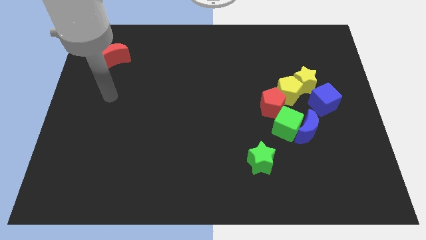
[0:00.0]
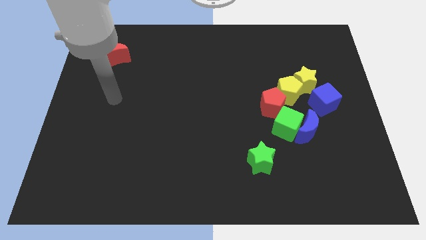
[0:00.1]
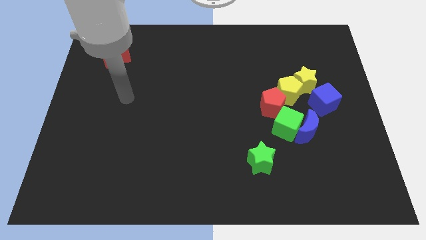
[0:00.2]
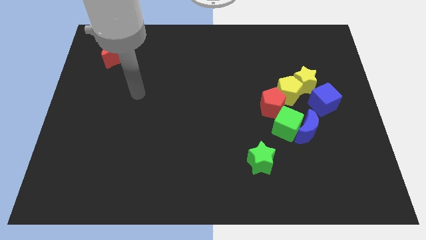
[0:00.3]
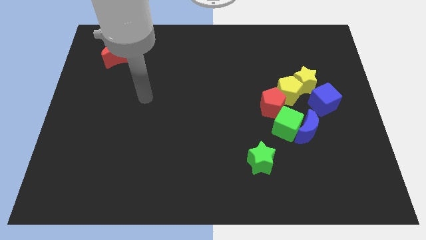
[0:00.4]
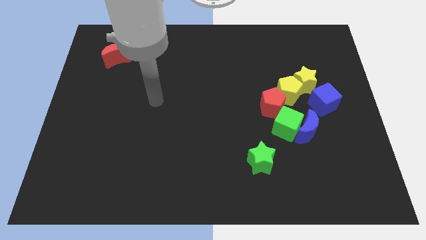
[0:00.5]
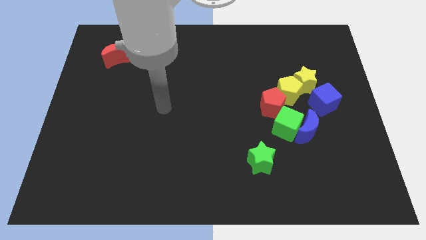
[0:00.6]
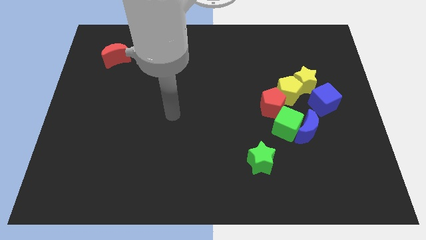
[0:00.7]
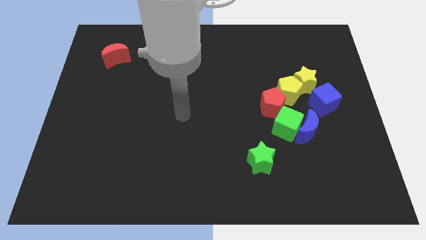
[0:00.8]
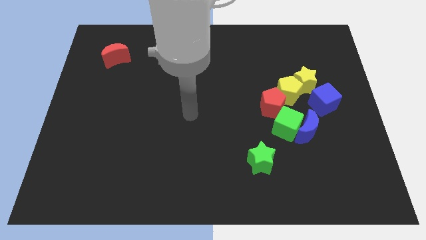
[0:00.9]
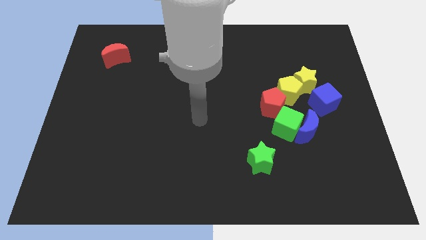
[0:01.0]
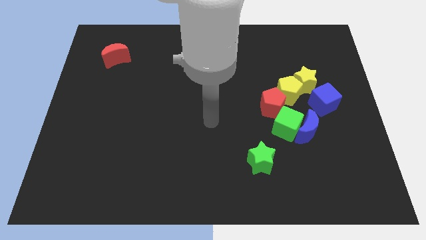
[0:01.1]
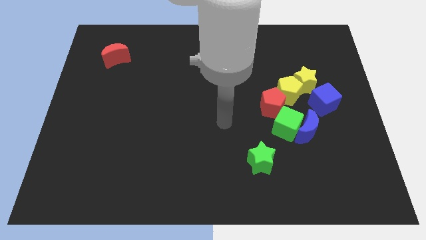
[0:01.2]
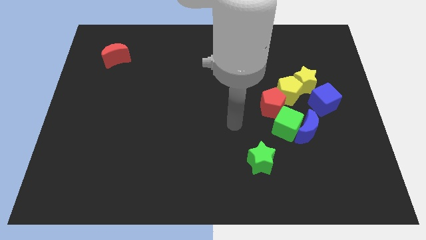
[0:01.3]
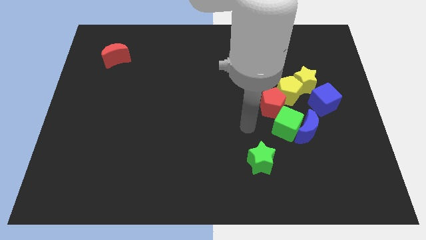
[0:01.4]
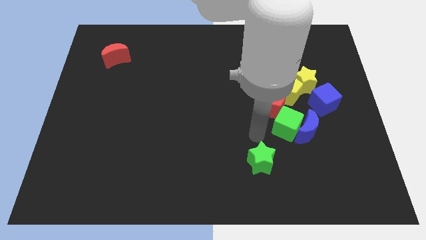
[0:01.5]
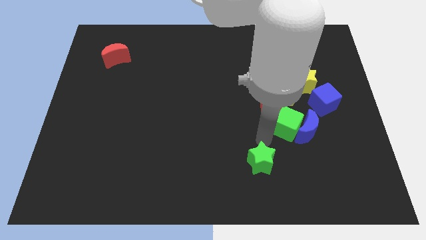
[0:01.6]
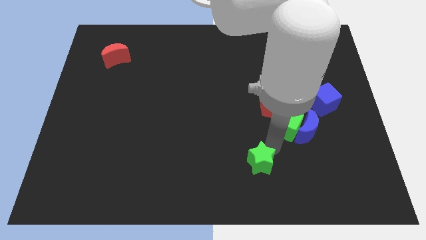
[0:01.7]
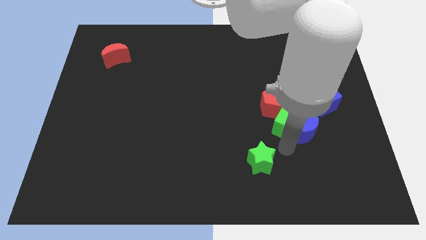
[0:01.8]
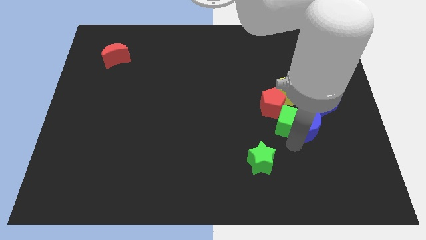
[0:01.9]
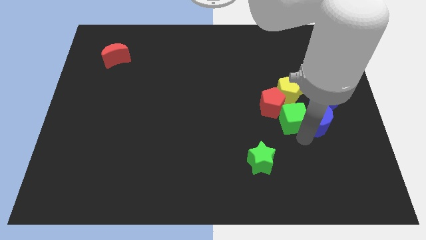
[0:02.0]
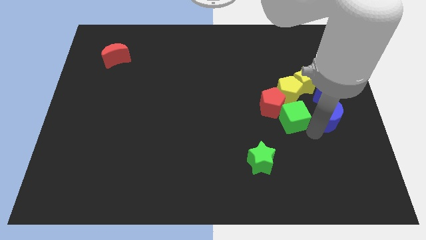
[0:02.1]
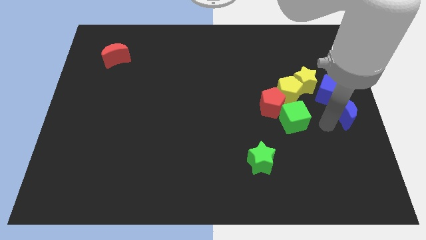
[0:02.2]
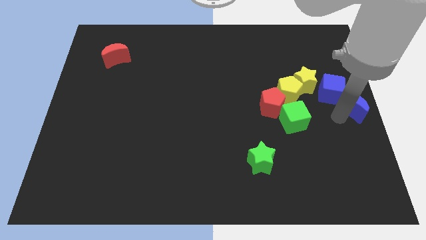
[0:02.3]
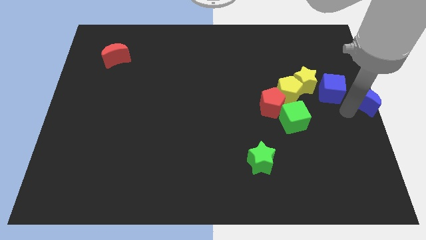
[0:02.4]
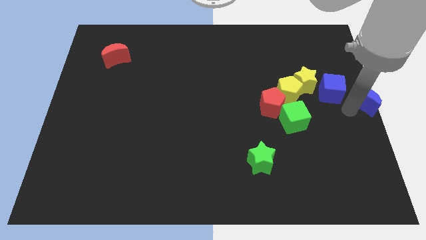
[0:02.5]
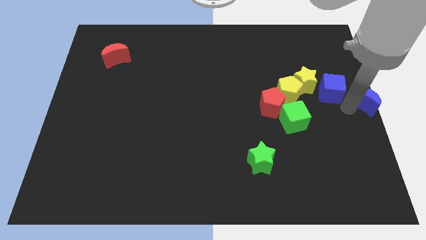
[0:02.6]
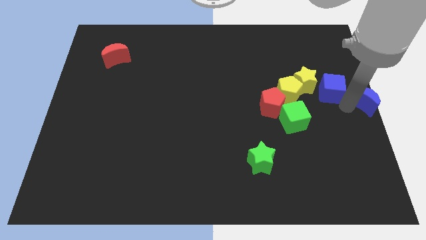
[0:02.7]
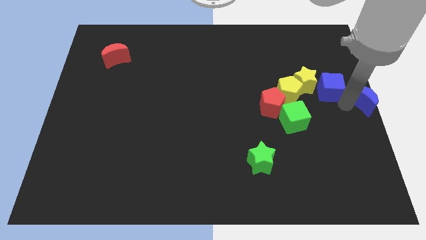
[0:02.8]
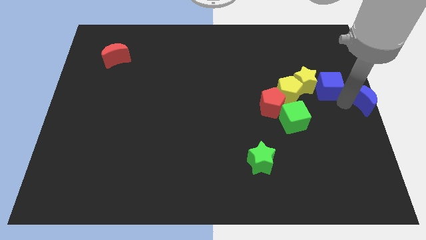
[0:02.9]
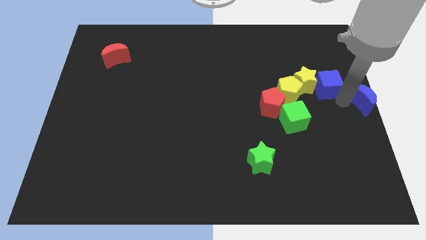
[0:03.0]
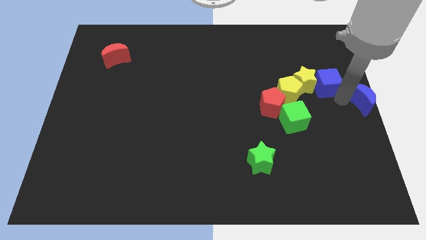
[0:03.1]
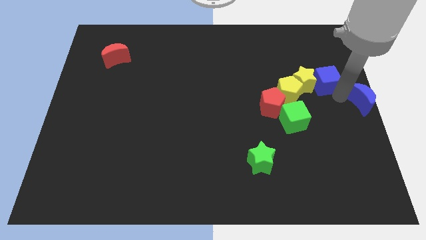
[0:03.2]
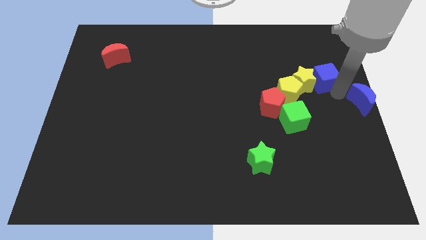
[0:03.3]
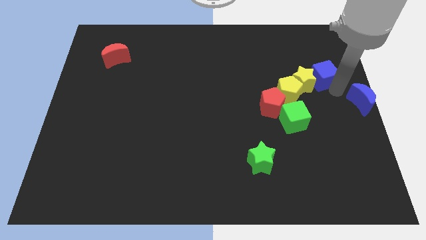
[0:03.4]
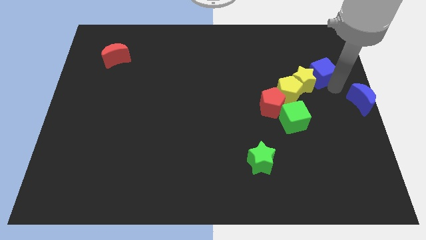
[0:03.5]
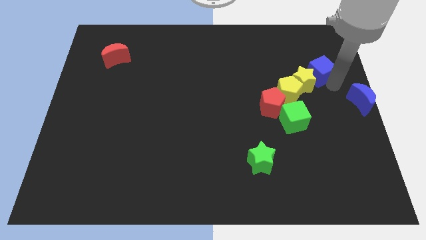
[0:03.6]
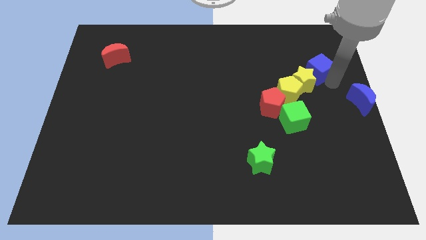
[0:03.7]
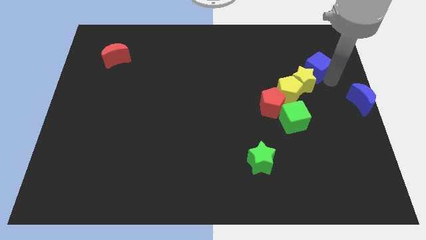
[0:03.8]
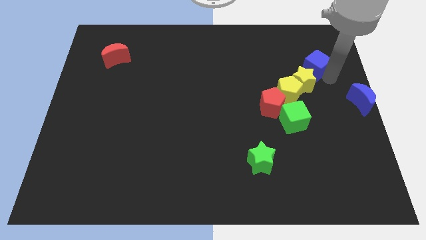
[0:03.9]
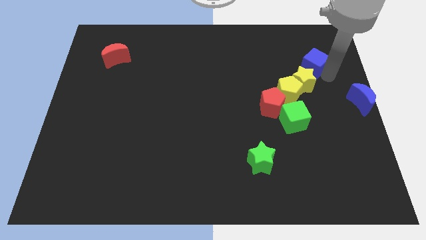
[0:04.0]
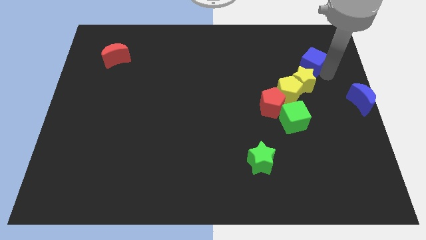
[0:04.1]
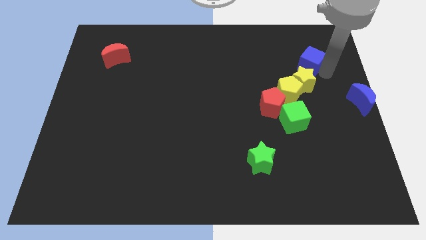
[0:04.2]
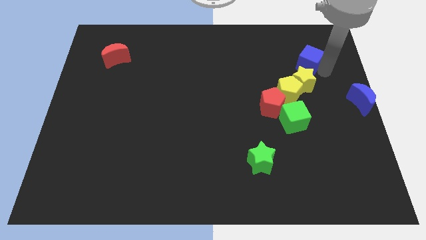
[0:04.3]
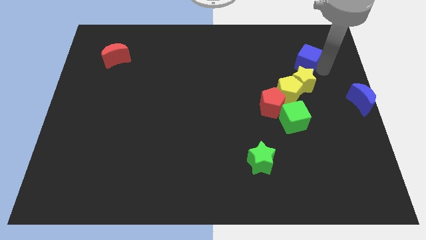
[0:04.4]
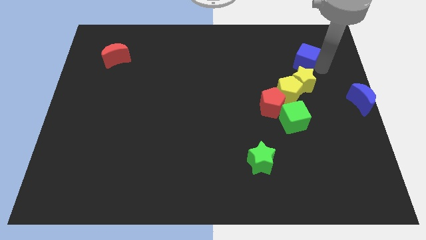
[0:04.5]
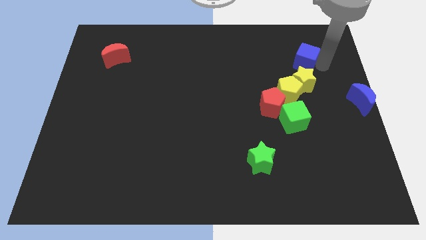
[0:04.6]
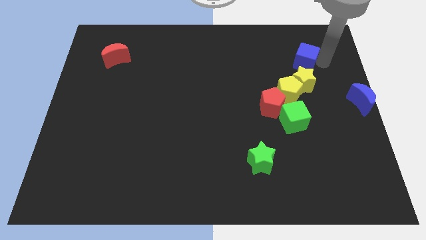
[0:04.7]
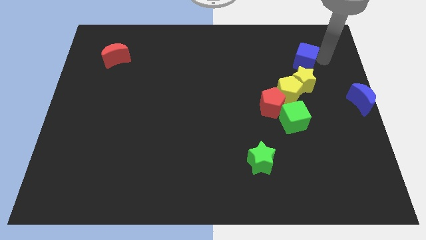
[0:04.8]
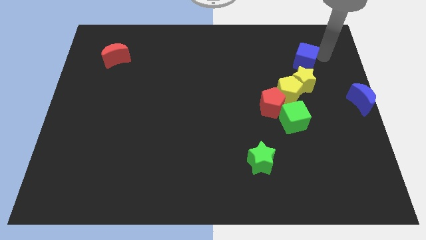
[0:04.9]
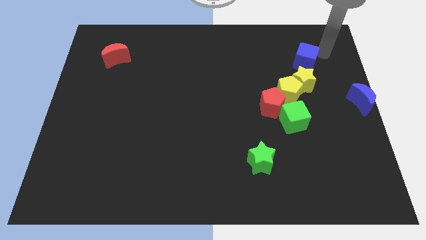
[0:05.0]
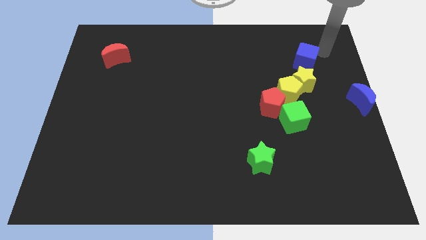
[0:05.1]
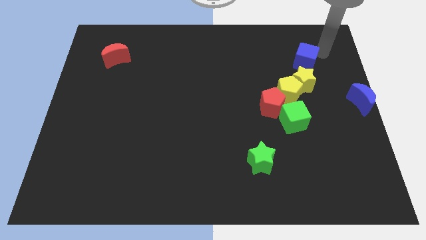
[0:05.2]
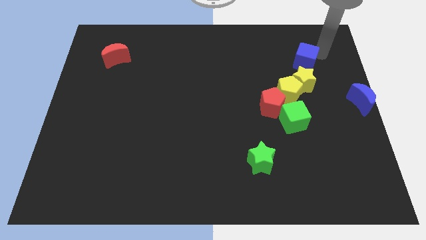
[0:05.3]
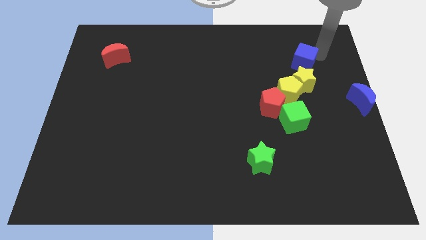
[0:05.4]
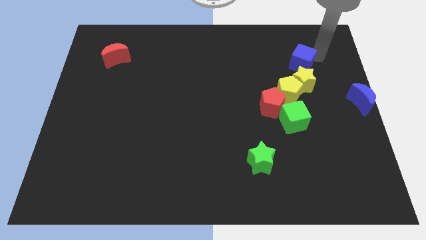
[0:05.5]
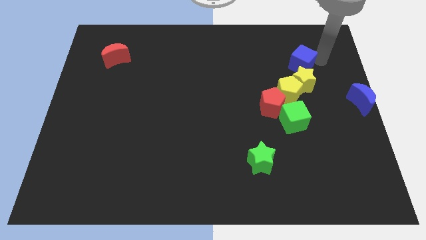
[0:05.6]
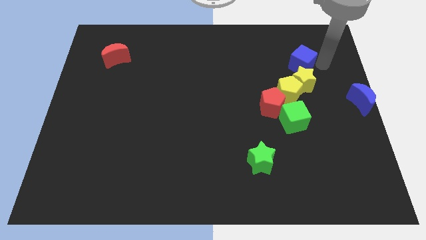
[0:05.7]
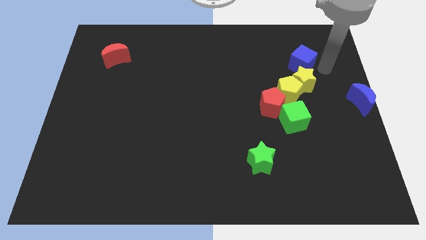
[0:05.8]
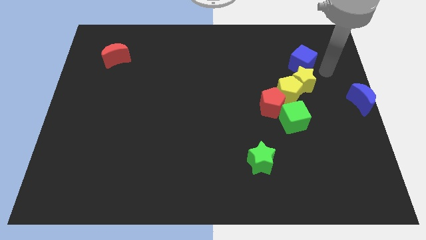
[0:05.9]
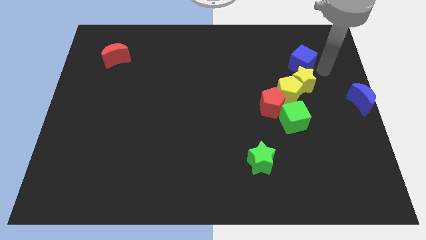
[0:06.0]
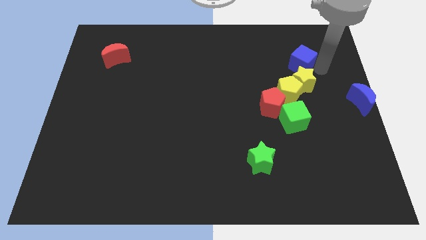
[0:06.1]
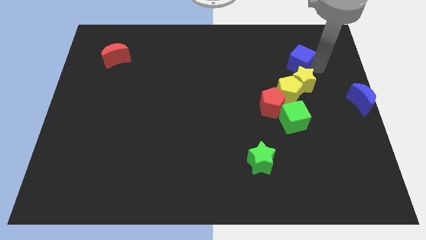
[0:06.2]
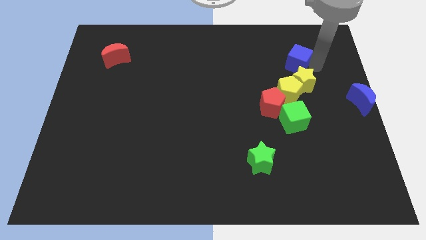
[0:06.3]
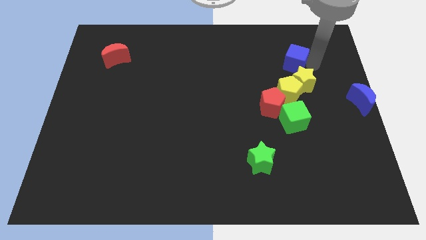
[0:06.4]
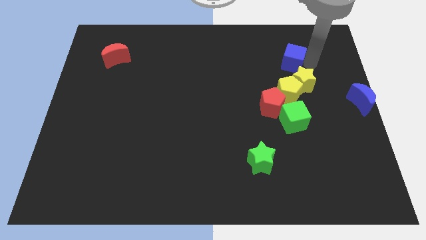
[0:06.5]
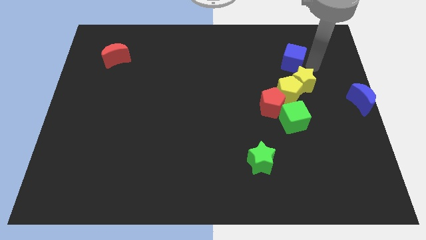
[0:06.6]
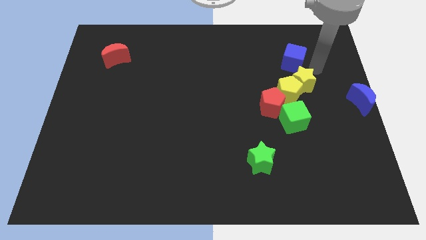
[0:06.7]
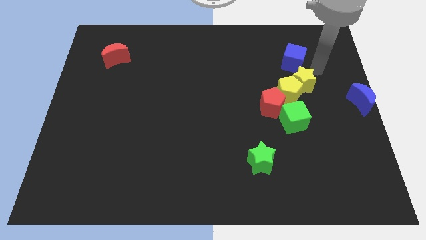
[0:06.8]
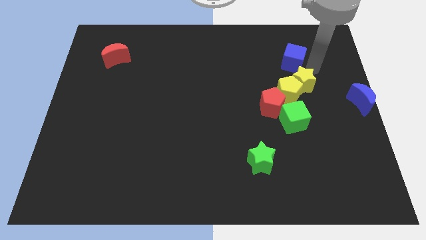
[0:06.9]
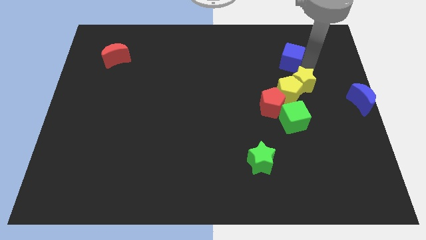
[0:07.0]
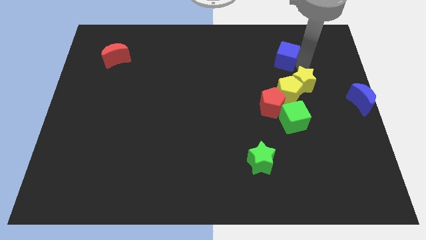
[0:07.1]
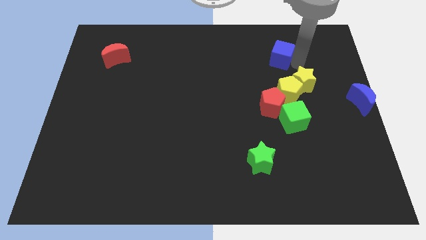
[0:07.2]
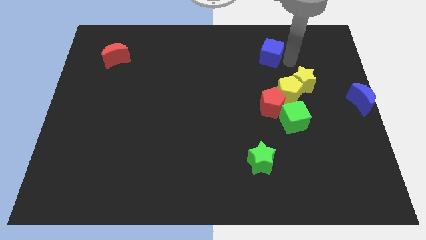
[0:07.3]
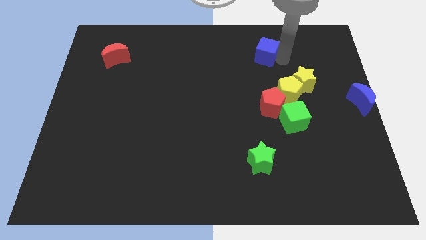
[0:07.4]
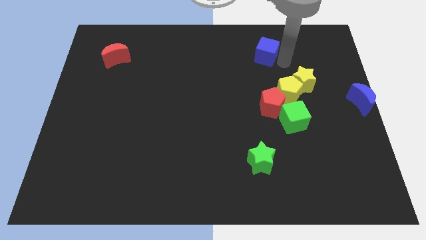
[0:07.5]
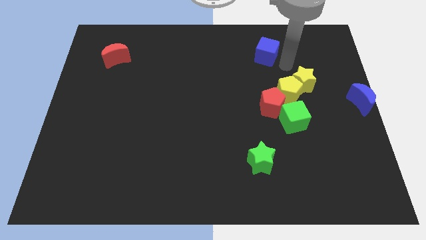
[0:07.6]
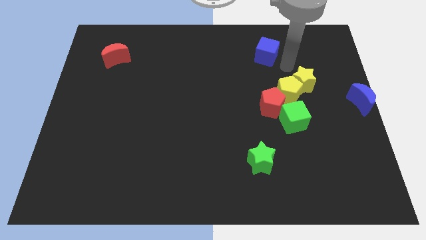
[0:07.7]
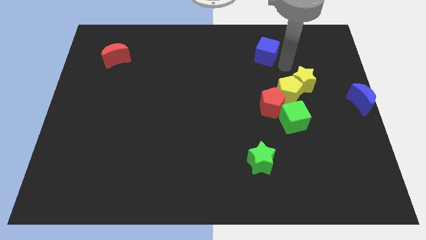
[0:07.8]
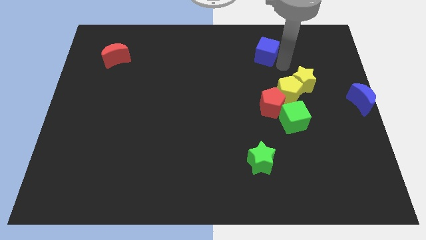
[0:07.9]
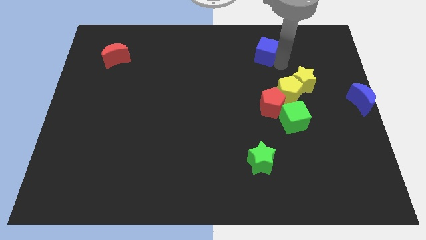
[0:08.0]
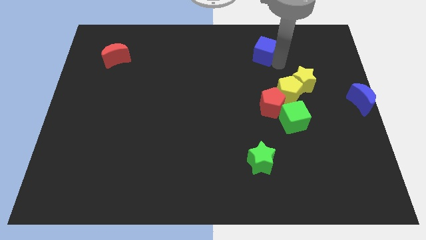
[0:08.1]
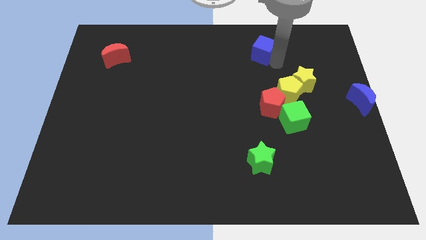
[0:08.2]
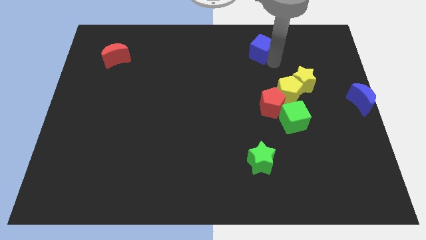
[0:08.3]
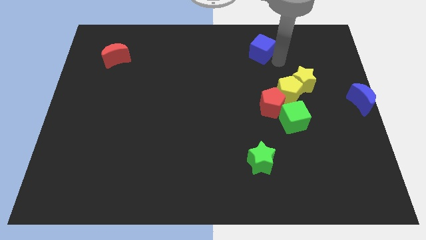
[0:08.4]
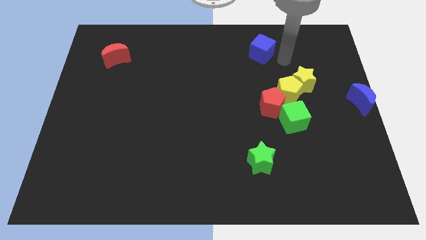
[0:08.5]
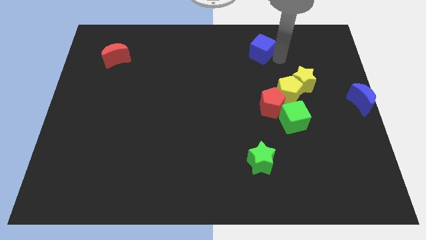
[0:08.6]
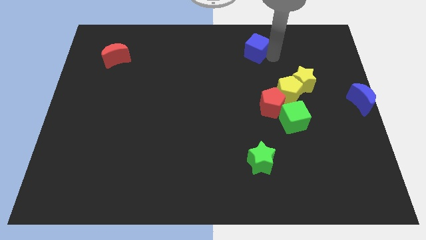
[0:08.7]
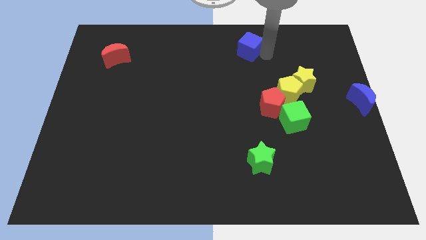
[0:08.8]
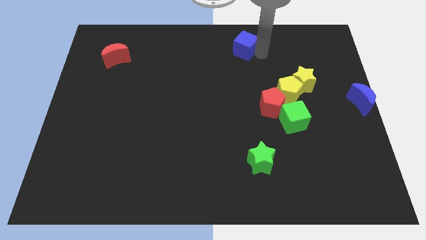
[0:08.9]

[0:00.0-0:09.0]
push the blue cube to the top
